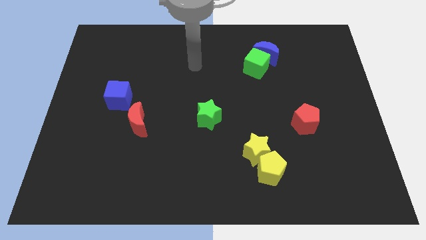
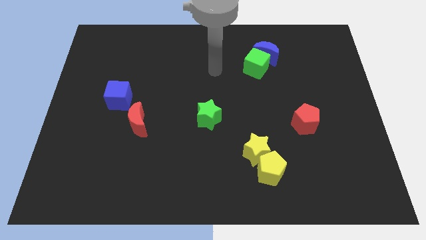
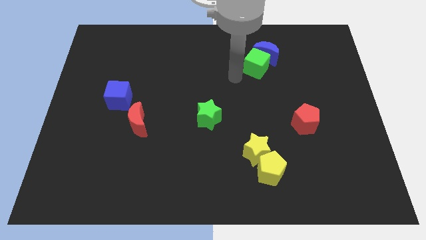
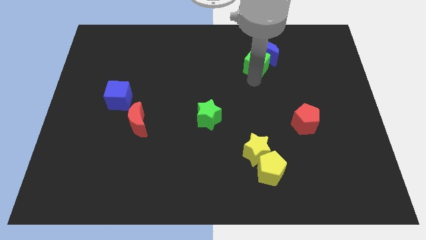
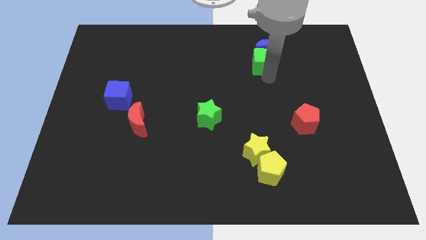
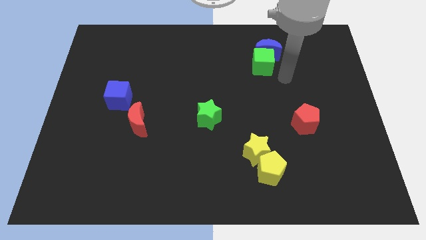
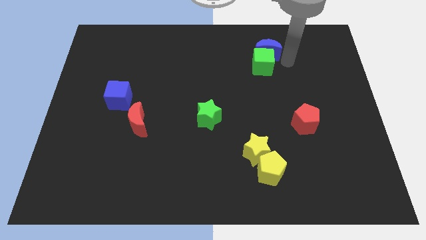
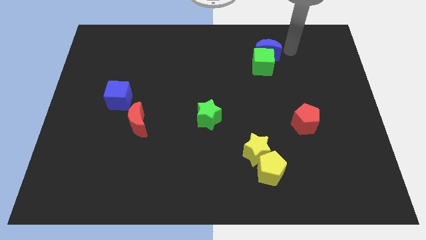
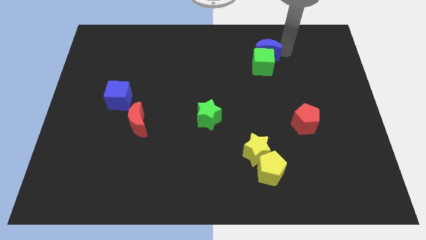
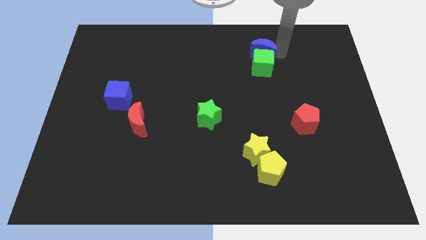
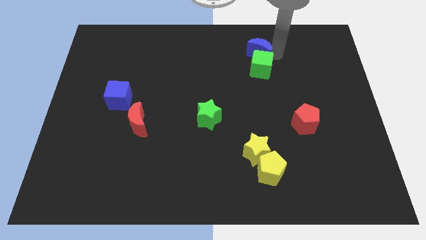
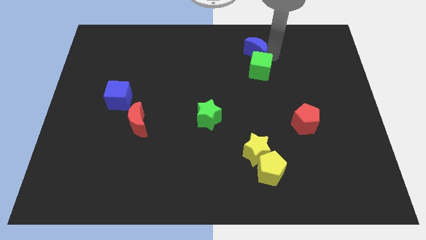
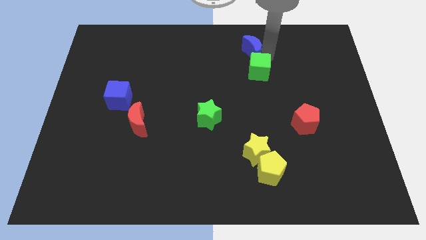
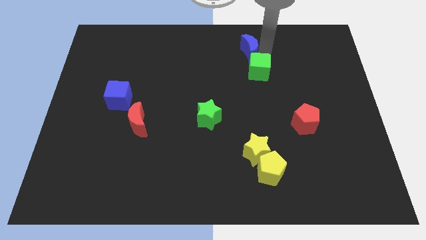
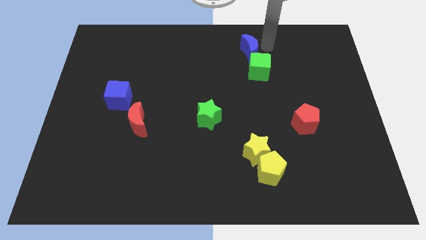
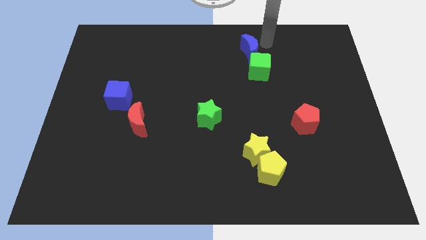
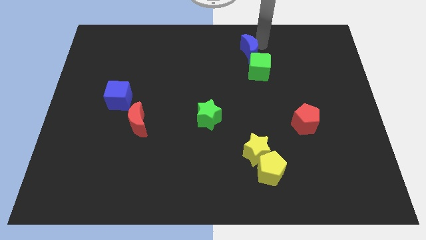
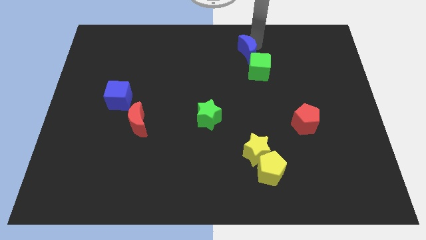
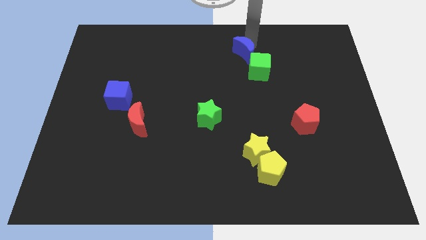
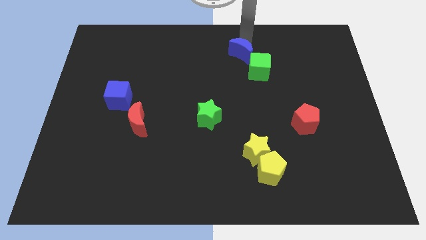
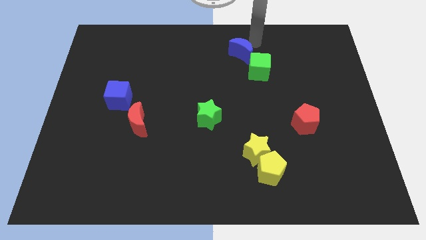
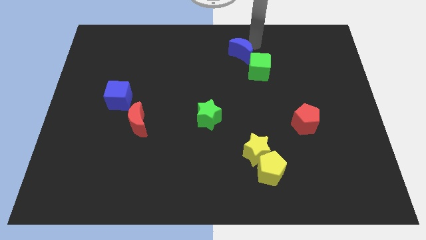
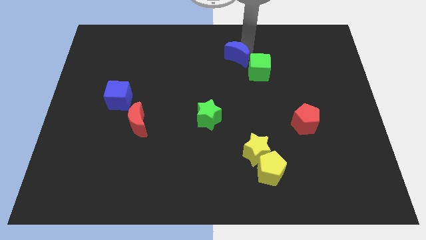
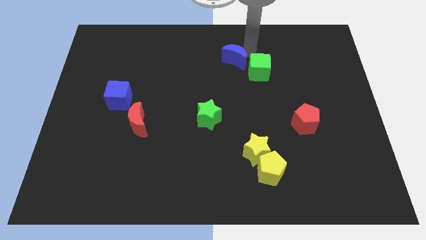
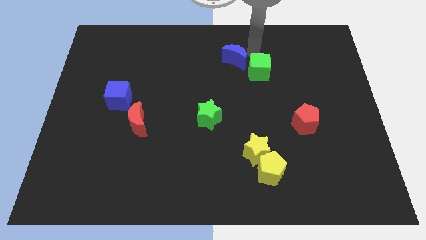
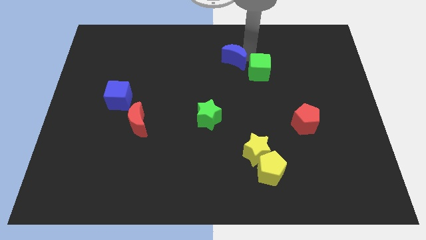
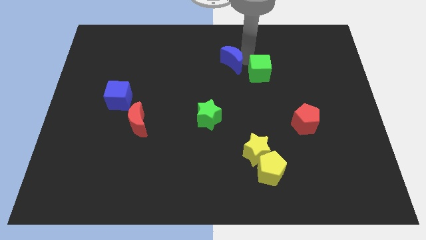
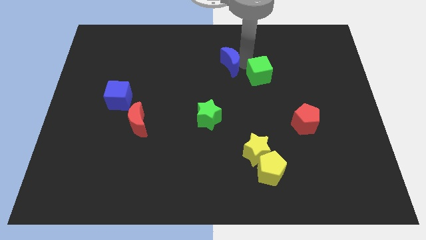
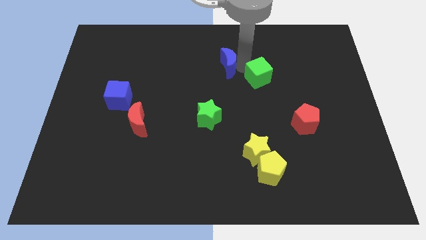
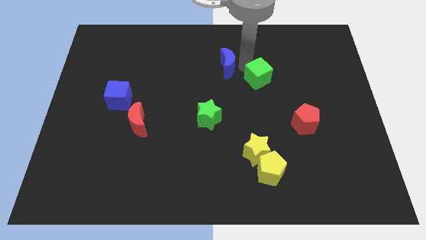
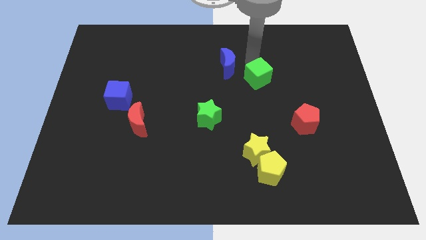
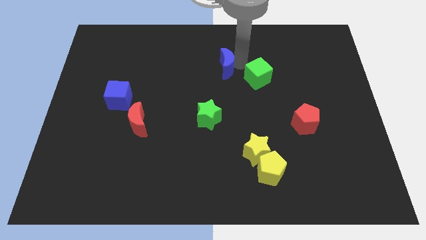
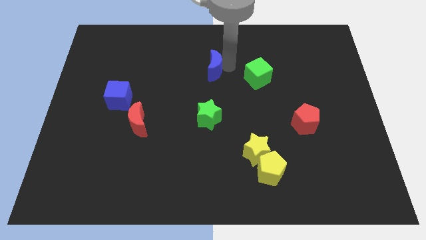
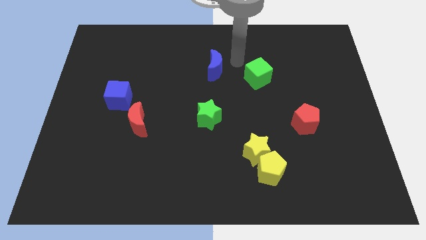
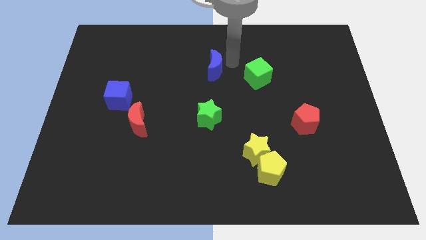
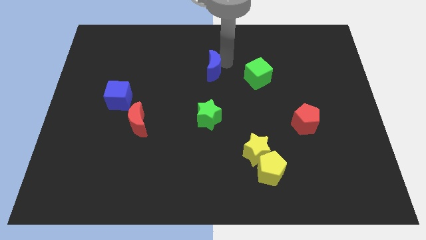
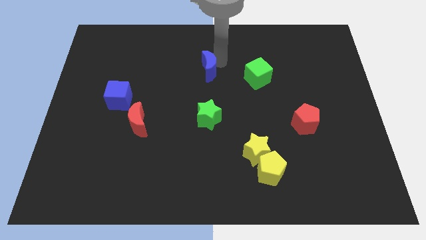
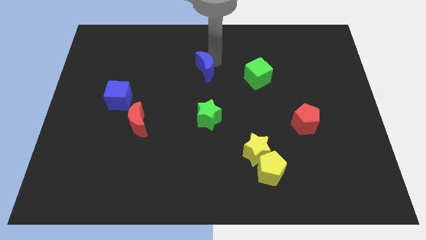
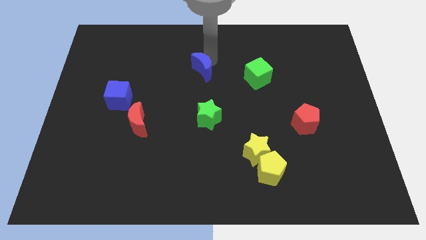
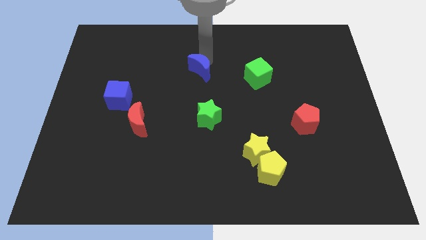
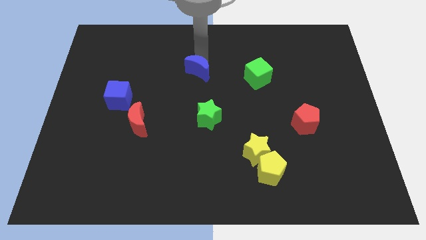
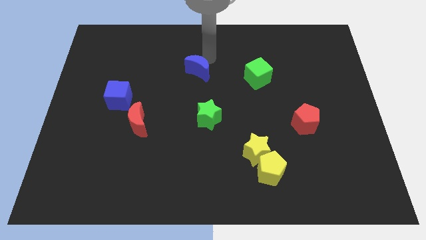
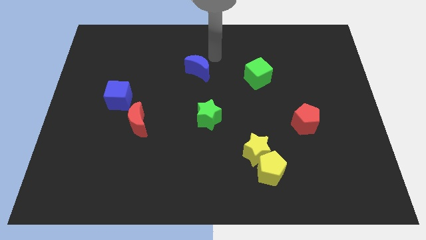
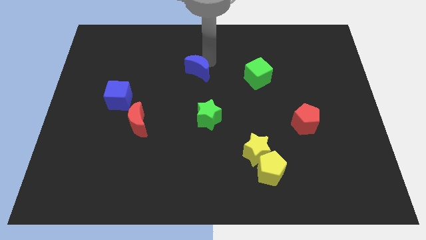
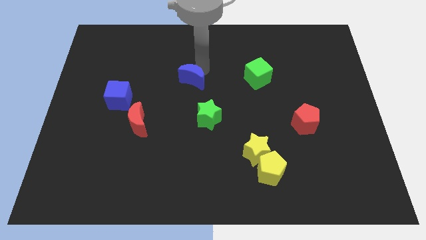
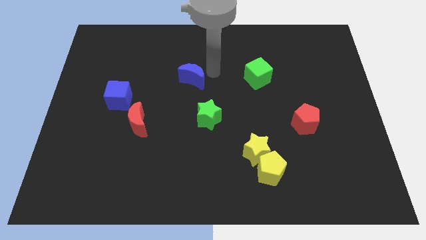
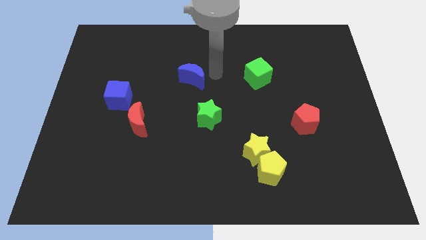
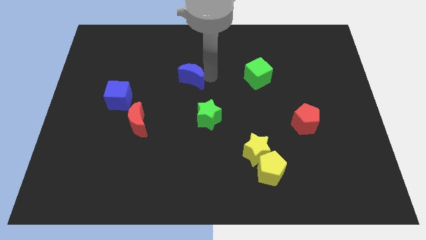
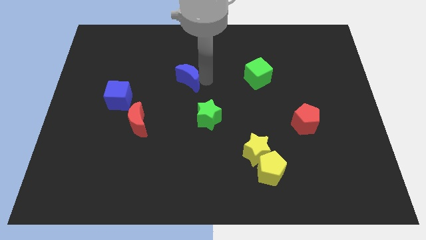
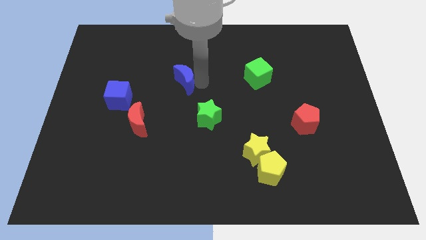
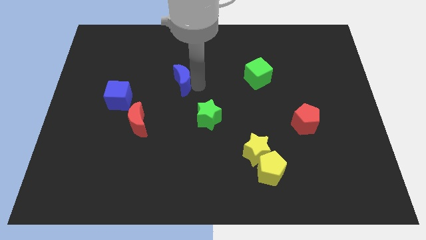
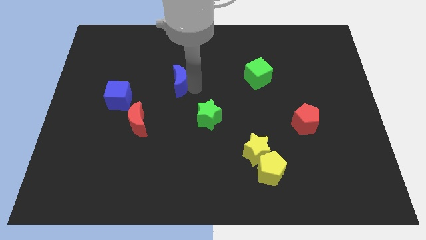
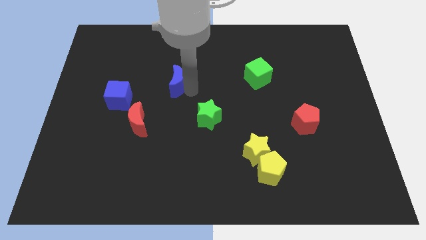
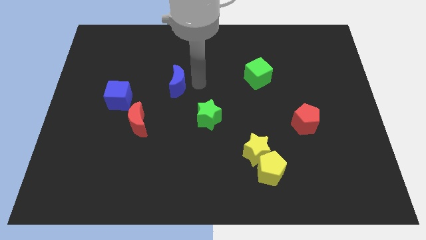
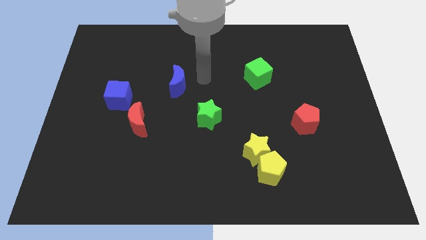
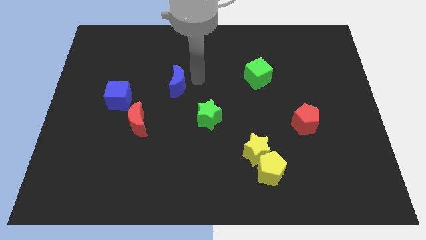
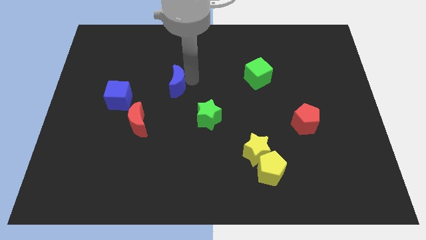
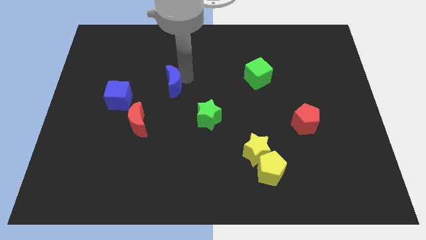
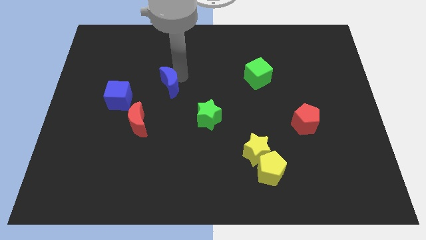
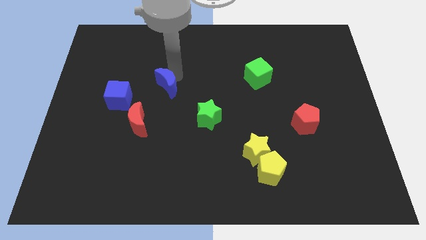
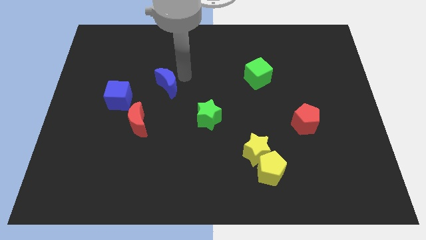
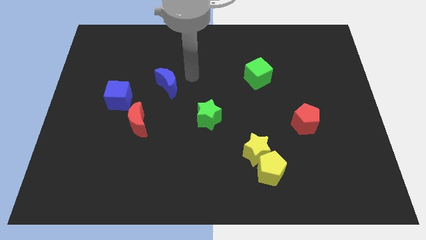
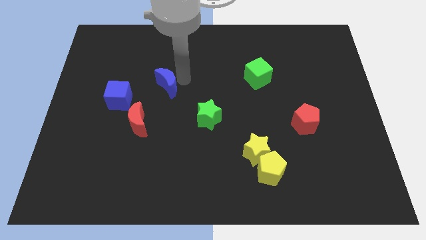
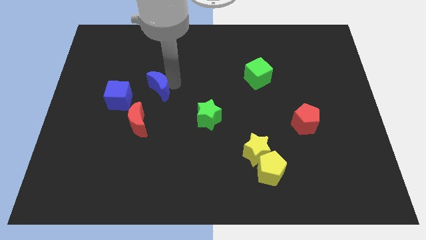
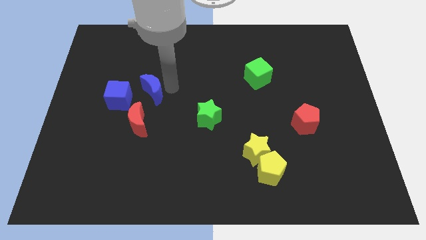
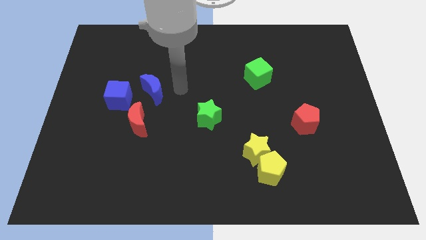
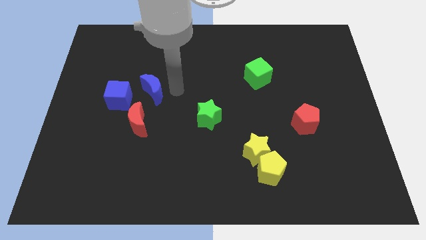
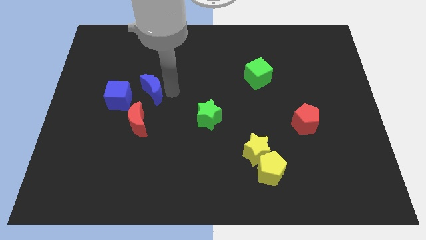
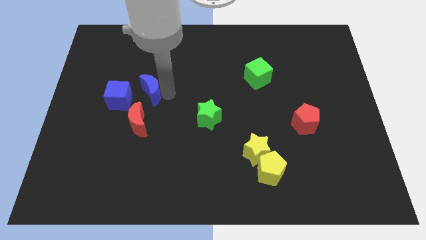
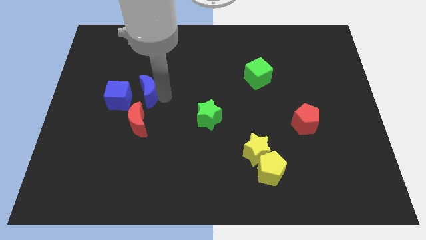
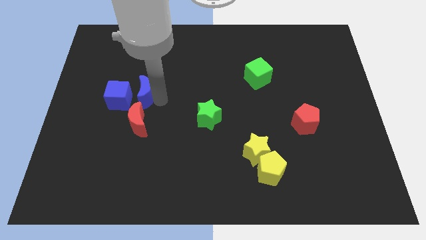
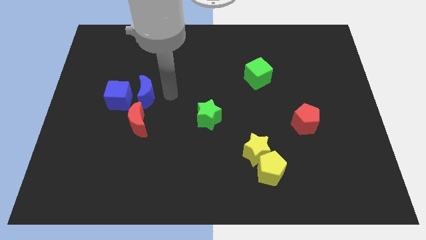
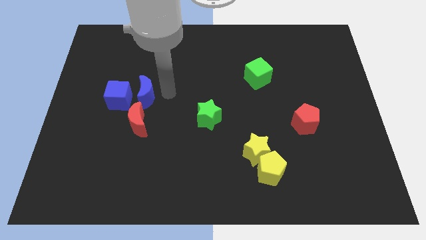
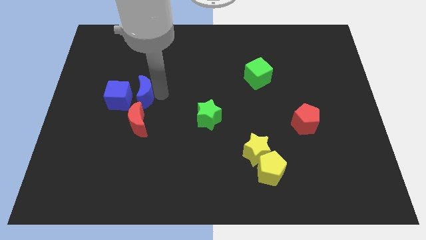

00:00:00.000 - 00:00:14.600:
push the blue moon next to the blue cube
